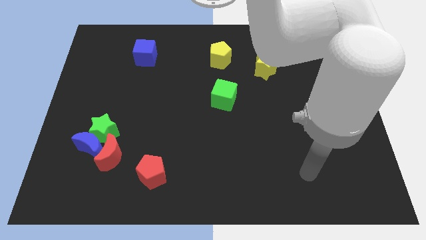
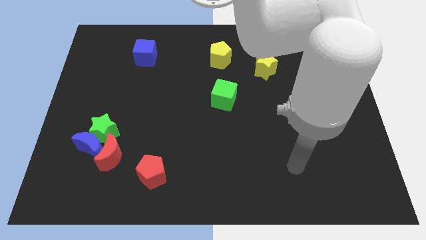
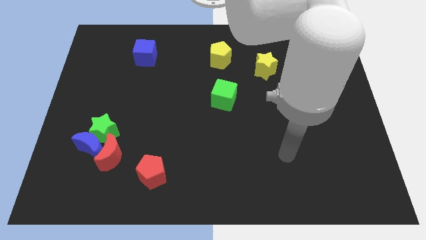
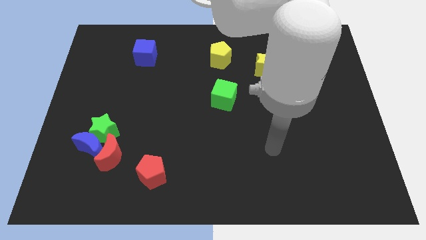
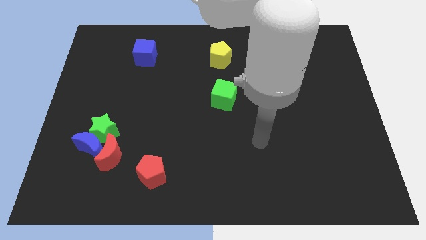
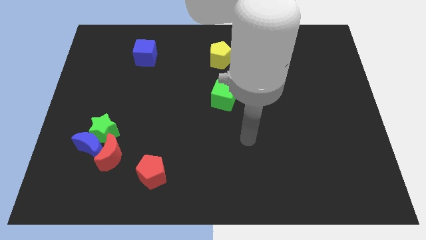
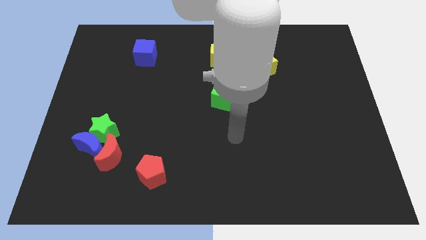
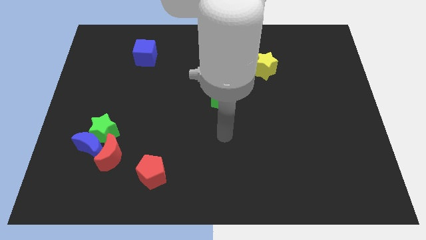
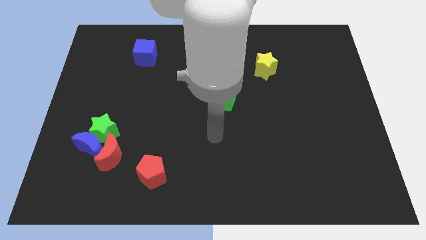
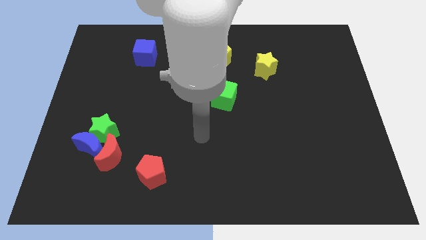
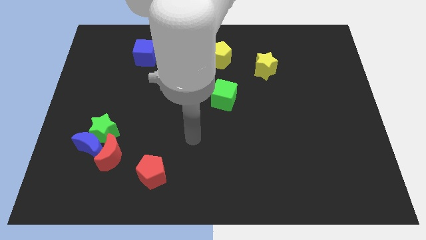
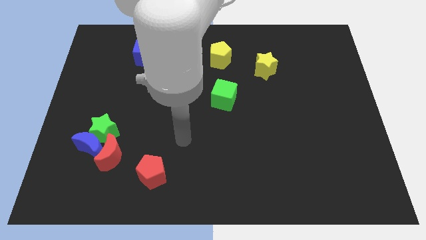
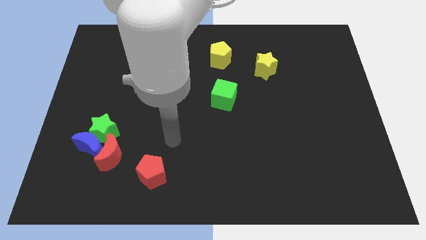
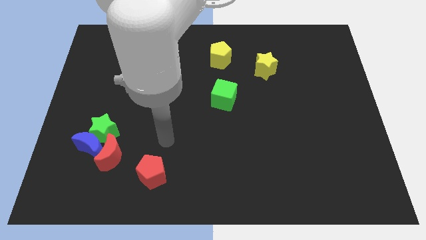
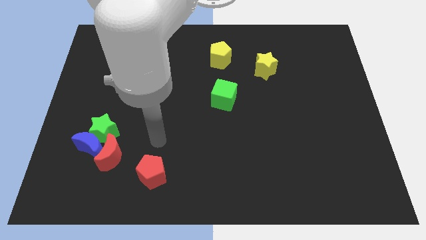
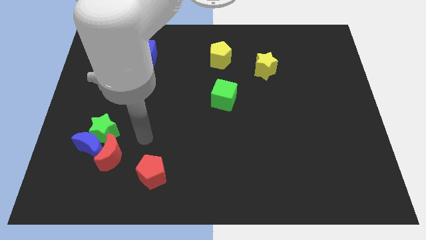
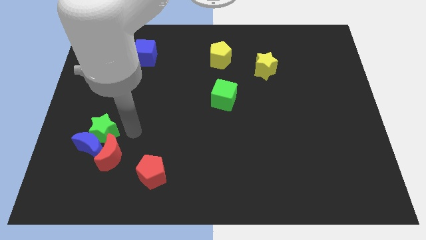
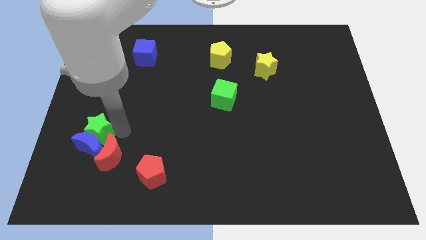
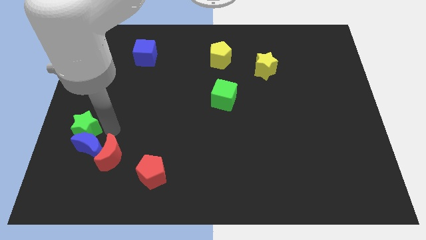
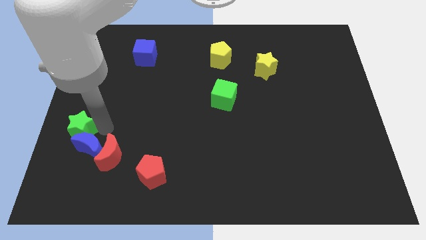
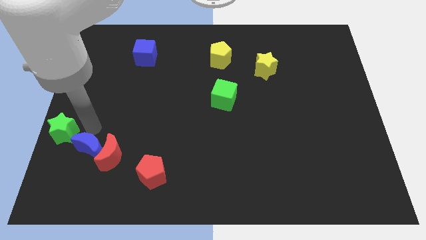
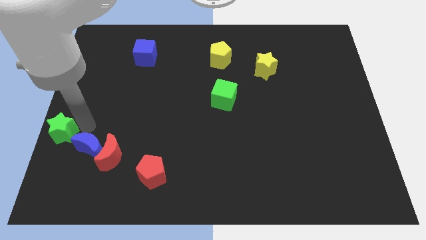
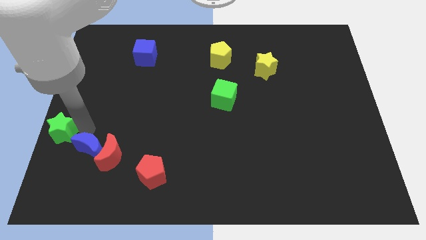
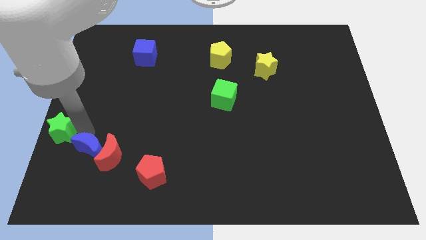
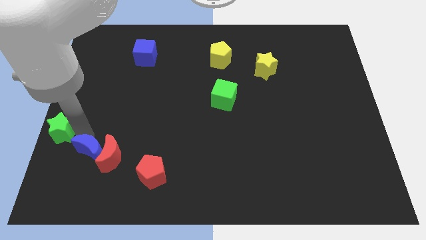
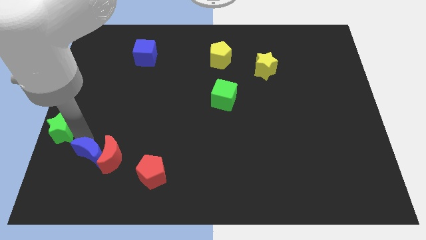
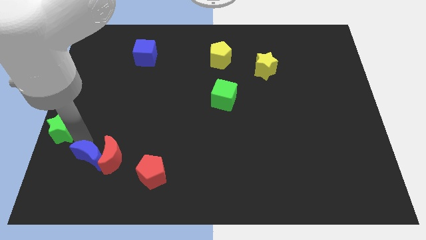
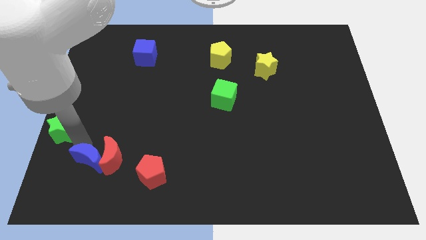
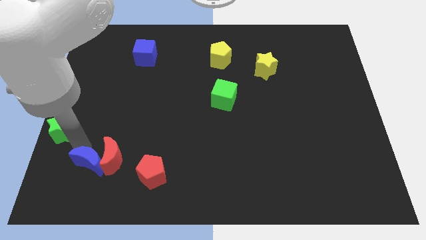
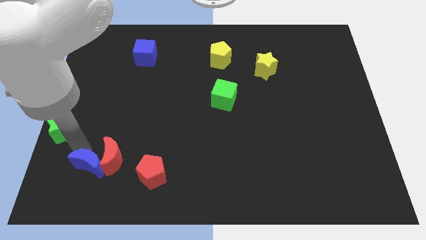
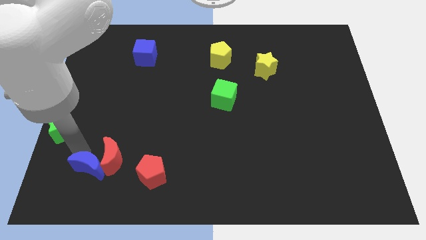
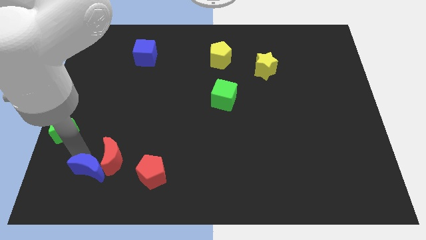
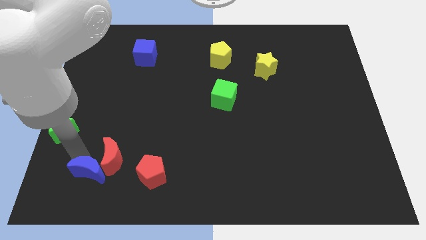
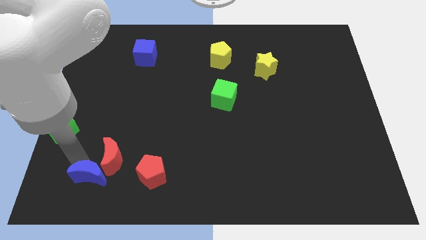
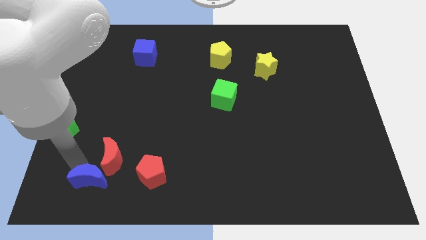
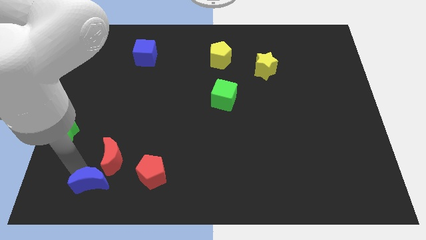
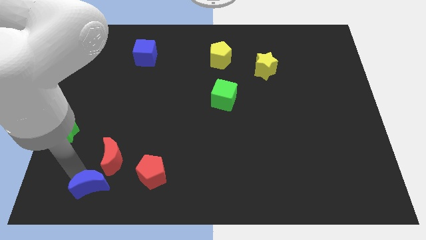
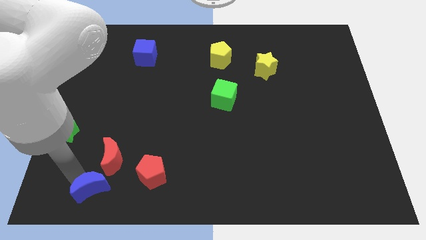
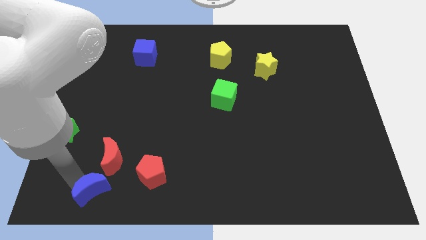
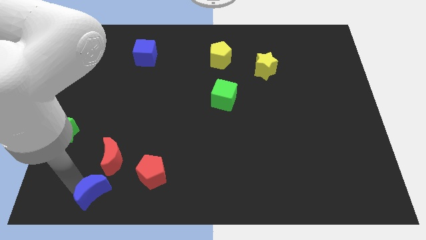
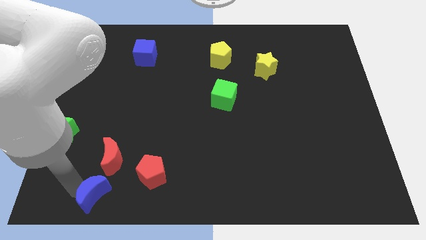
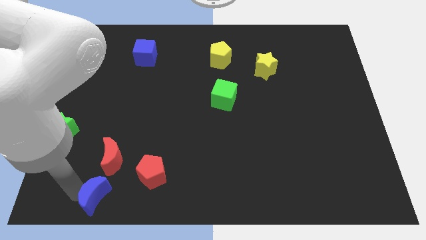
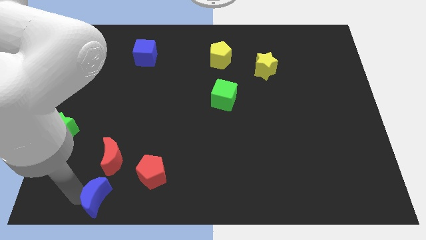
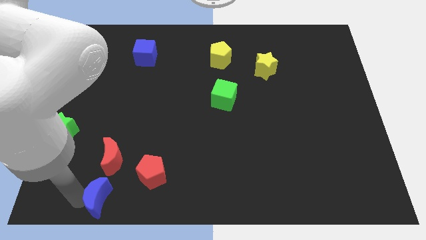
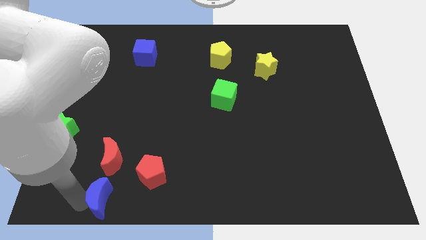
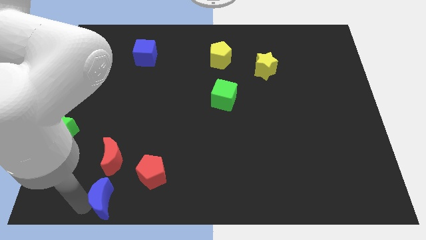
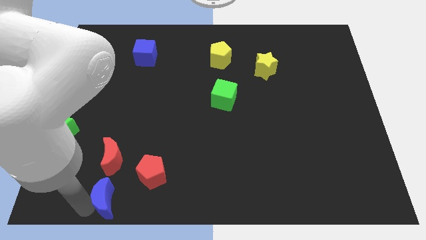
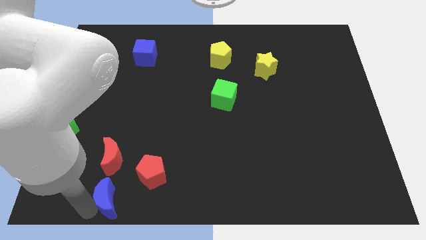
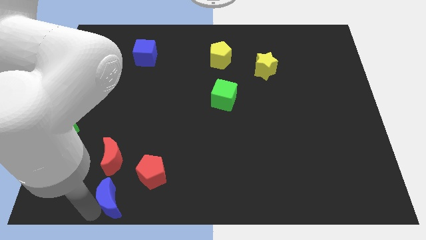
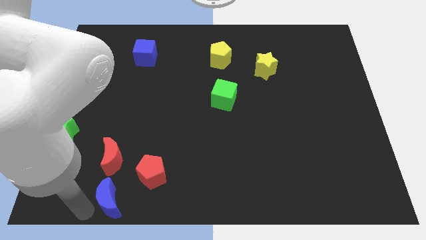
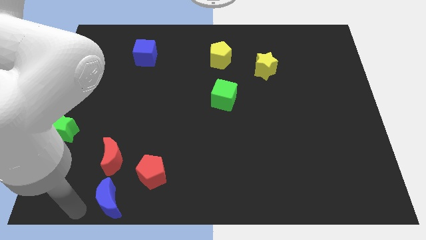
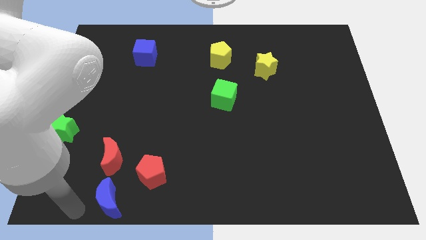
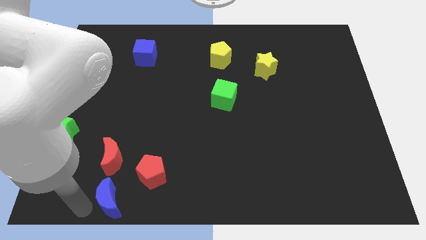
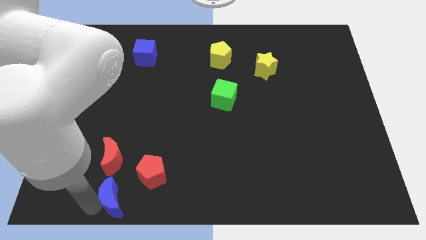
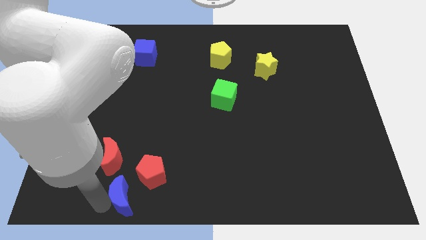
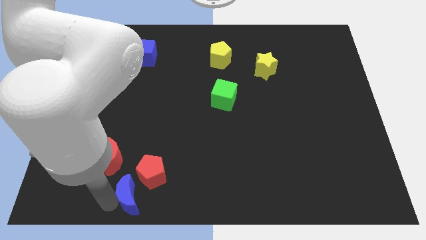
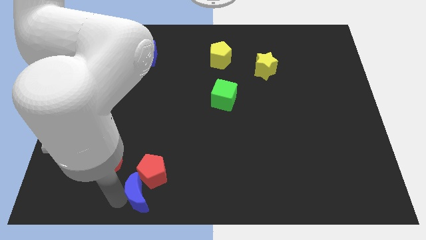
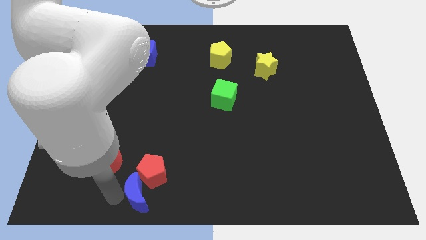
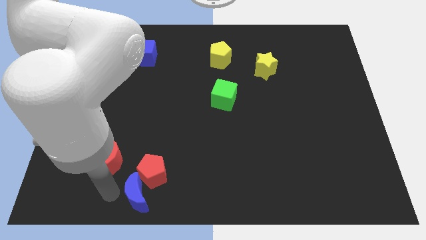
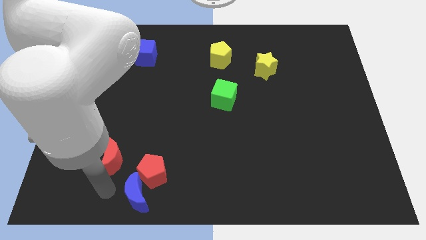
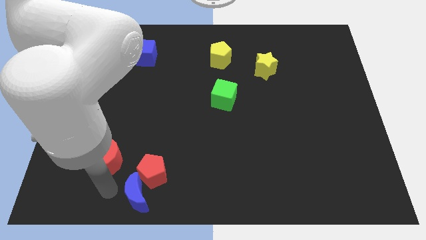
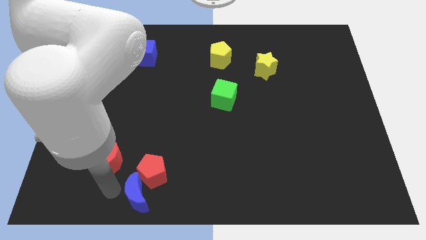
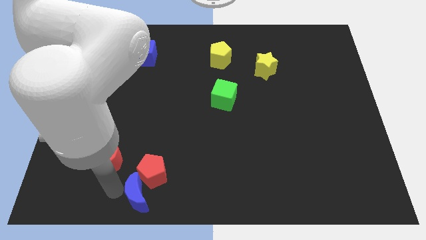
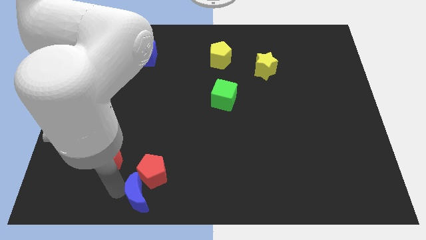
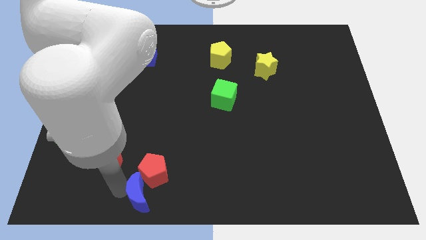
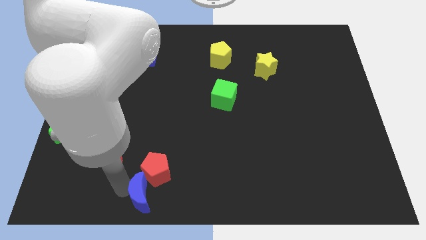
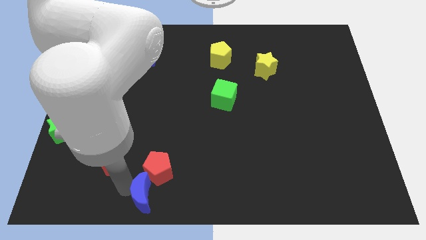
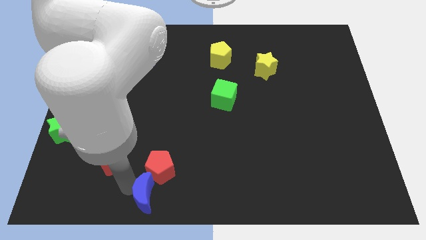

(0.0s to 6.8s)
slide the blue moon to the bottom
